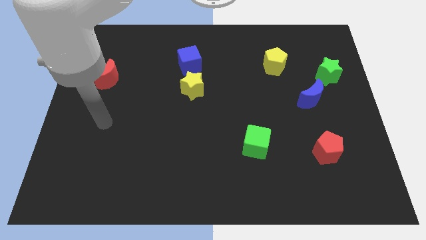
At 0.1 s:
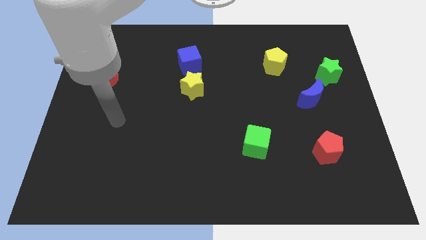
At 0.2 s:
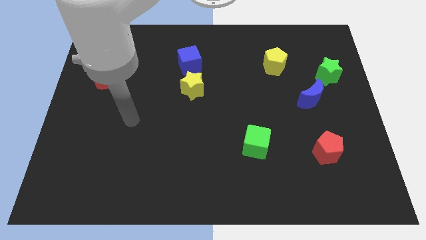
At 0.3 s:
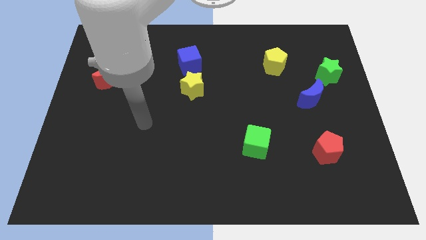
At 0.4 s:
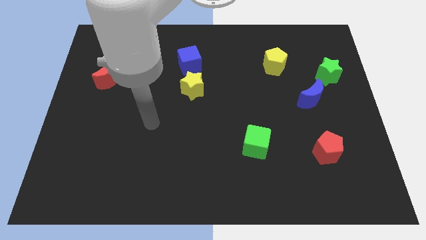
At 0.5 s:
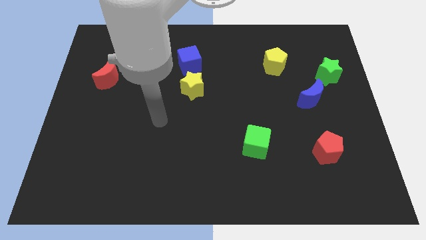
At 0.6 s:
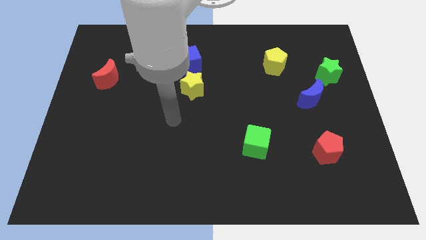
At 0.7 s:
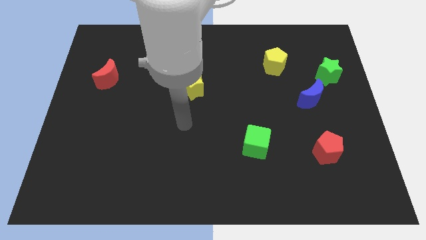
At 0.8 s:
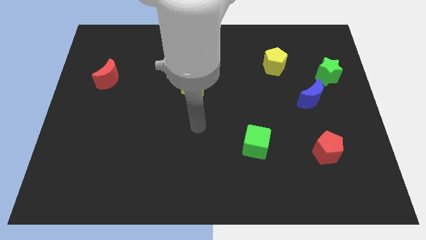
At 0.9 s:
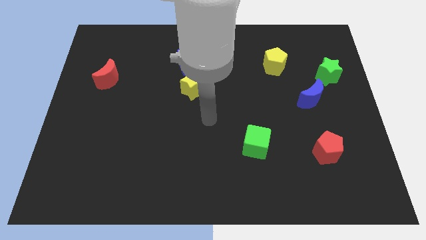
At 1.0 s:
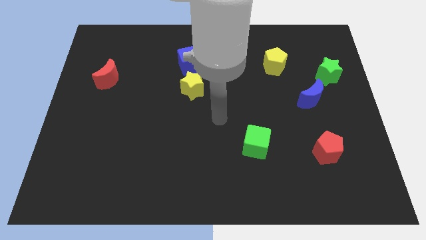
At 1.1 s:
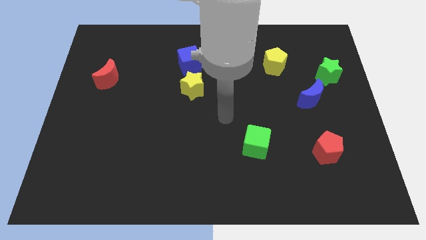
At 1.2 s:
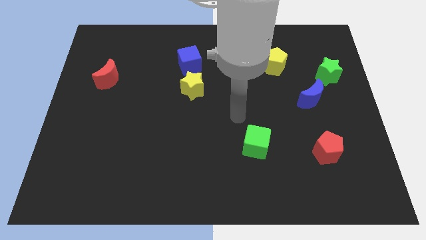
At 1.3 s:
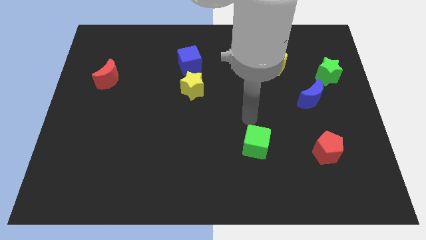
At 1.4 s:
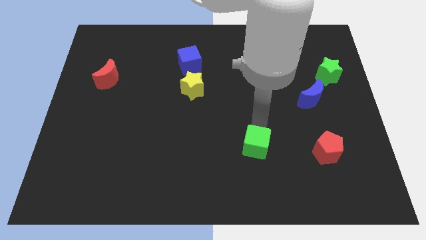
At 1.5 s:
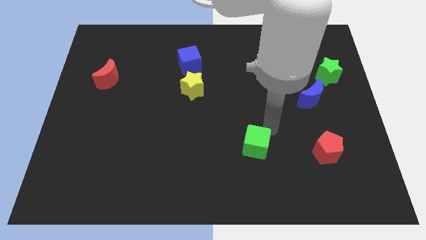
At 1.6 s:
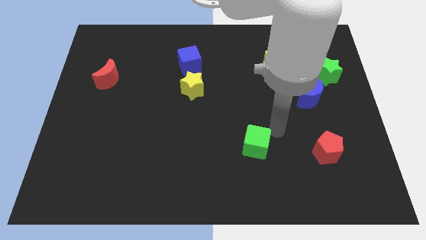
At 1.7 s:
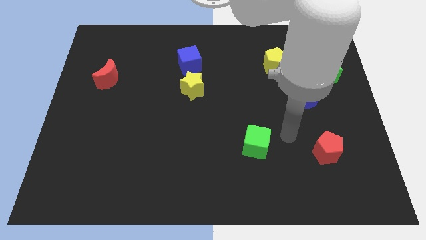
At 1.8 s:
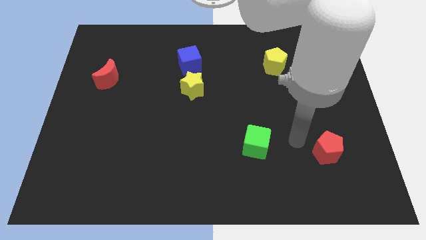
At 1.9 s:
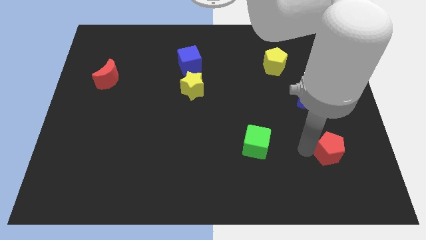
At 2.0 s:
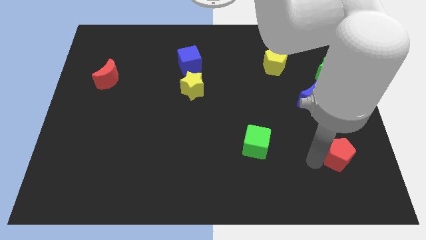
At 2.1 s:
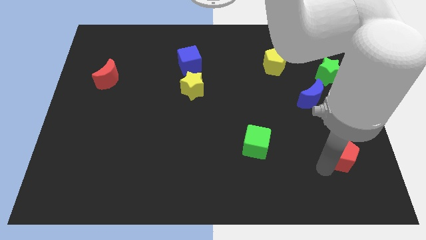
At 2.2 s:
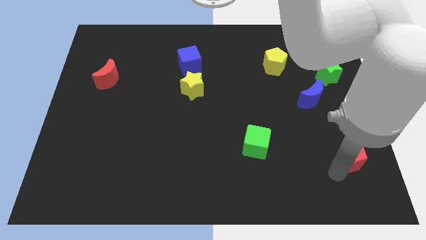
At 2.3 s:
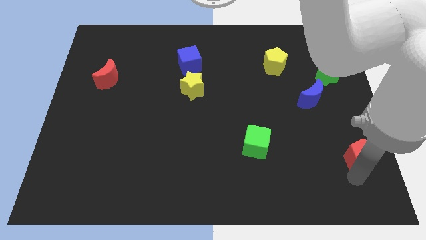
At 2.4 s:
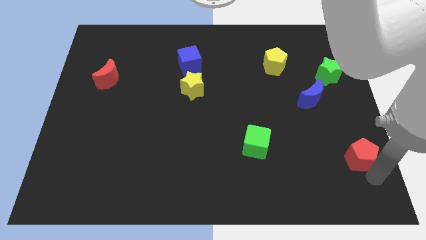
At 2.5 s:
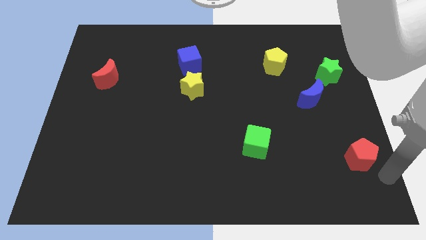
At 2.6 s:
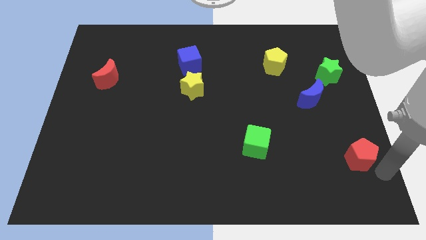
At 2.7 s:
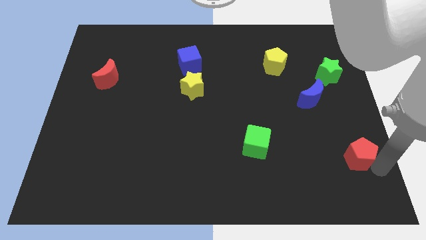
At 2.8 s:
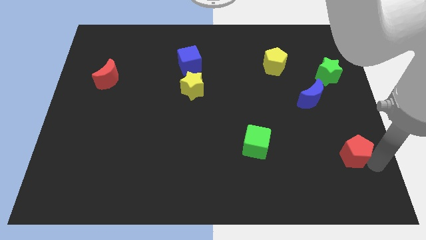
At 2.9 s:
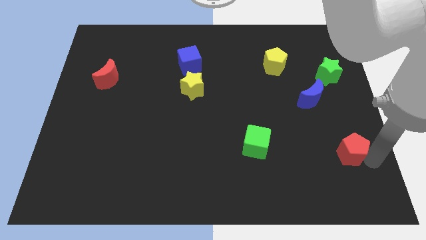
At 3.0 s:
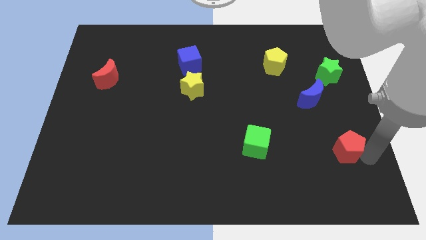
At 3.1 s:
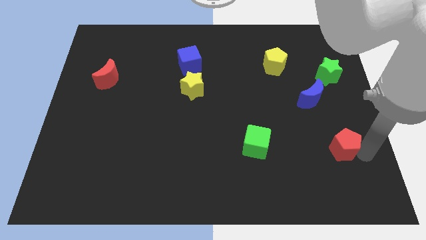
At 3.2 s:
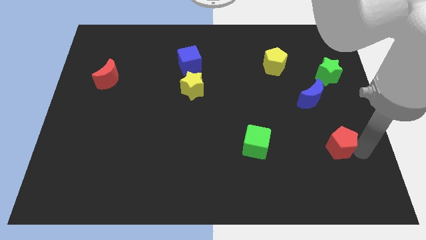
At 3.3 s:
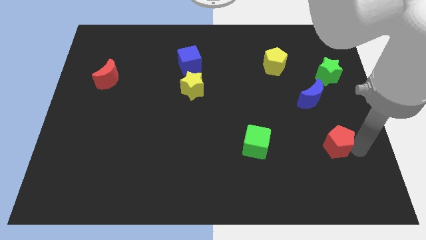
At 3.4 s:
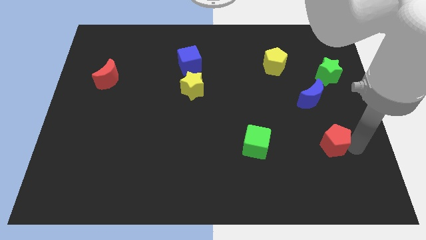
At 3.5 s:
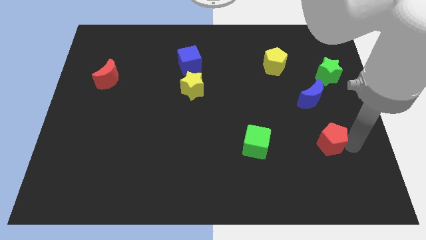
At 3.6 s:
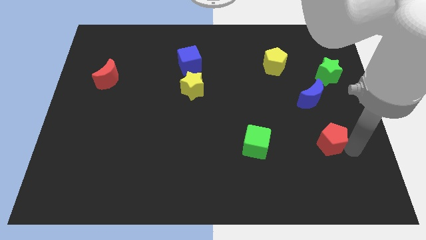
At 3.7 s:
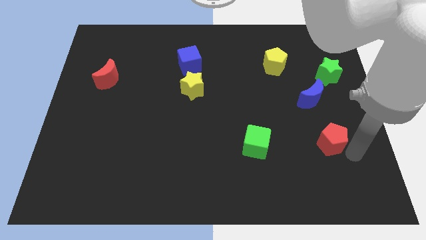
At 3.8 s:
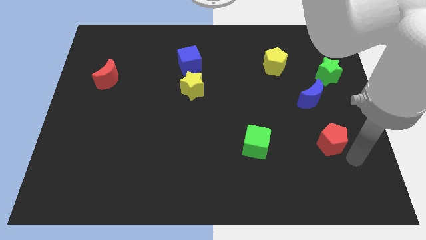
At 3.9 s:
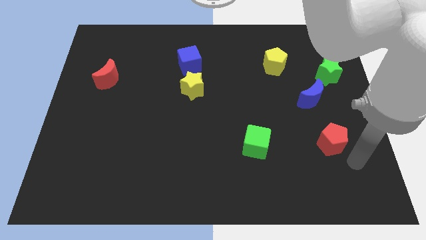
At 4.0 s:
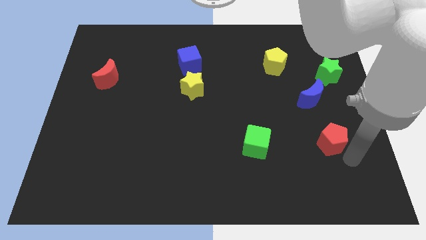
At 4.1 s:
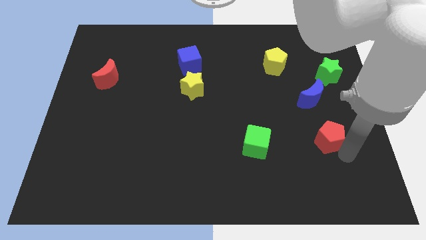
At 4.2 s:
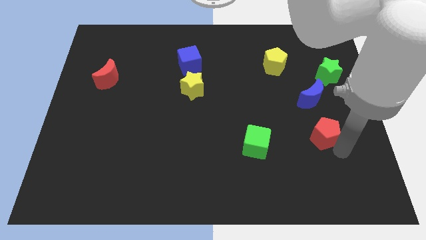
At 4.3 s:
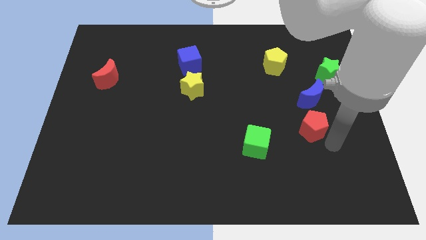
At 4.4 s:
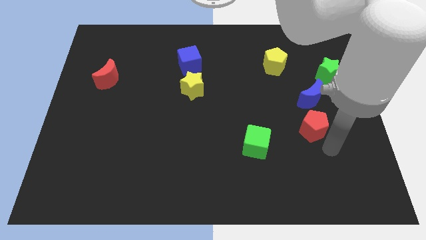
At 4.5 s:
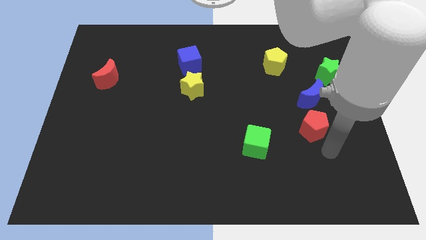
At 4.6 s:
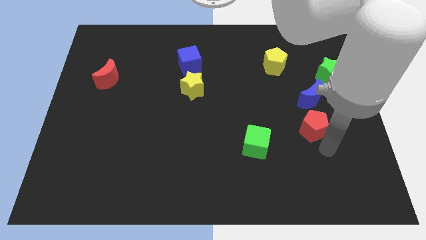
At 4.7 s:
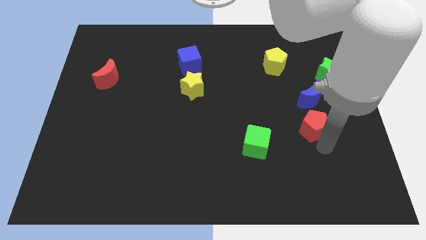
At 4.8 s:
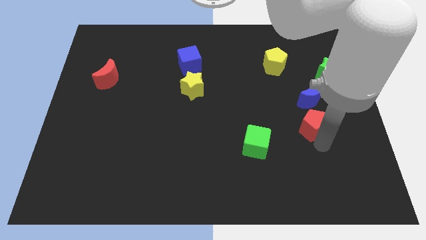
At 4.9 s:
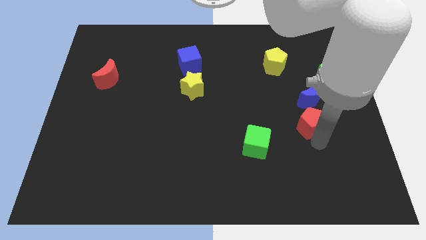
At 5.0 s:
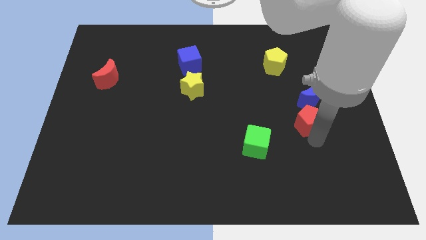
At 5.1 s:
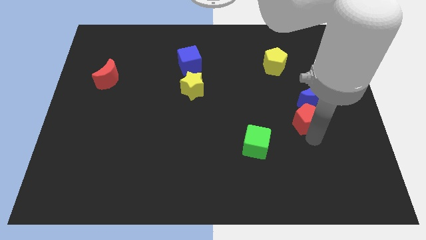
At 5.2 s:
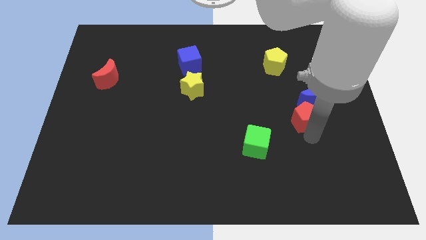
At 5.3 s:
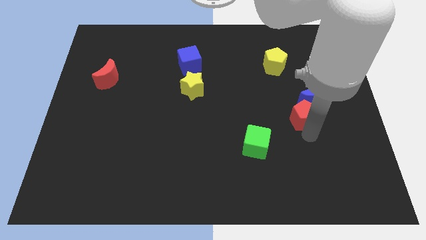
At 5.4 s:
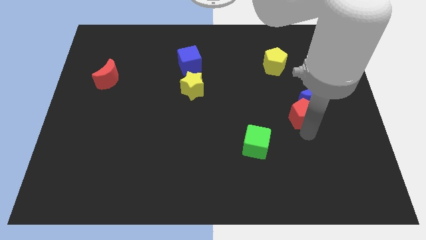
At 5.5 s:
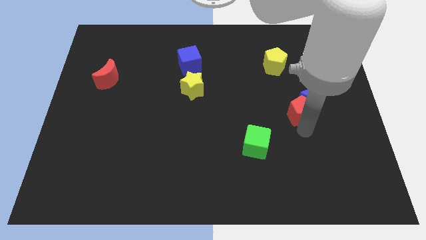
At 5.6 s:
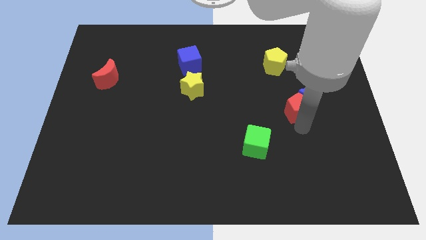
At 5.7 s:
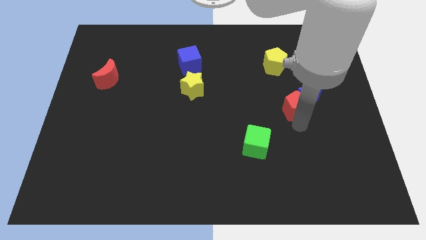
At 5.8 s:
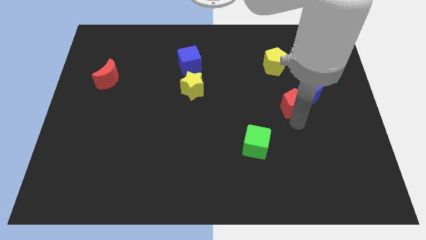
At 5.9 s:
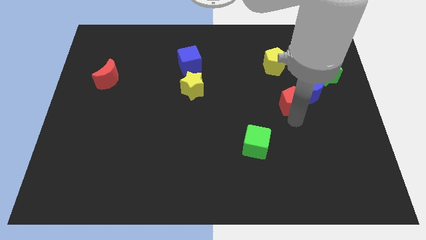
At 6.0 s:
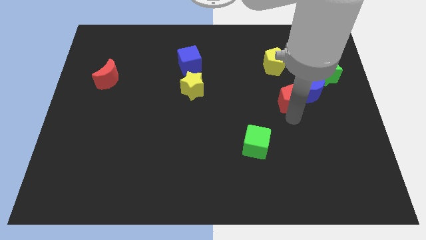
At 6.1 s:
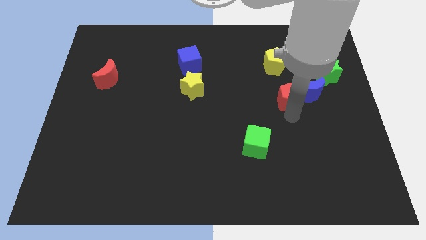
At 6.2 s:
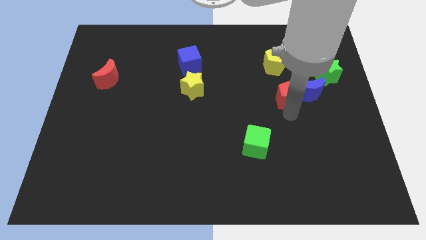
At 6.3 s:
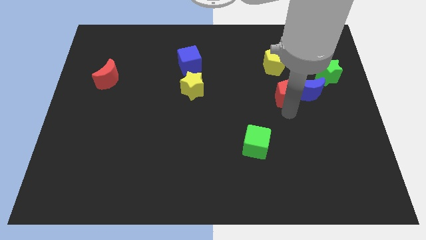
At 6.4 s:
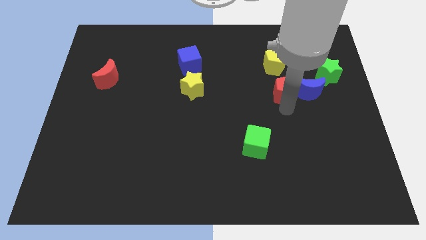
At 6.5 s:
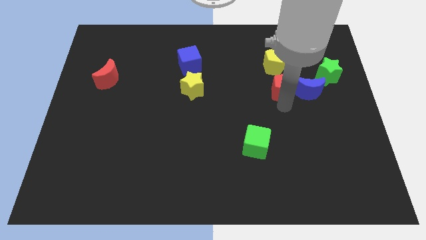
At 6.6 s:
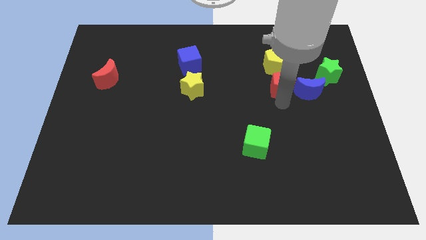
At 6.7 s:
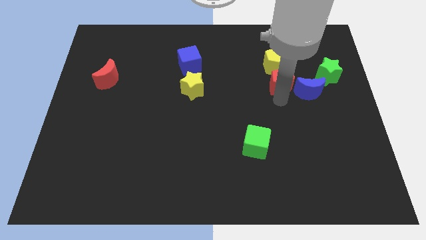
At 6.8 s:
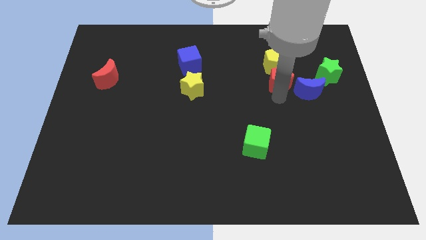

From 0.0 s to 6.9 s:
slide the red pentagon to the yellow pentagon
